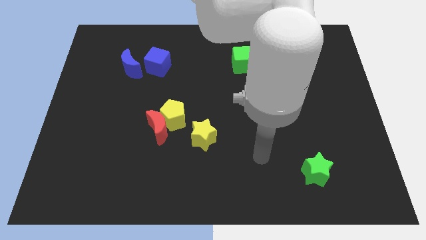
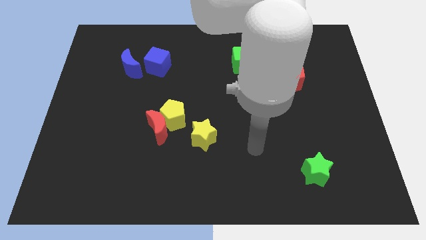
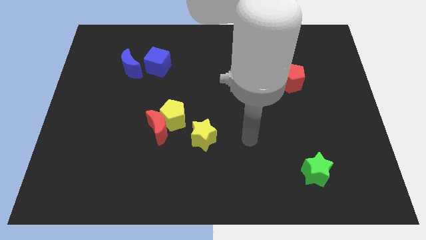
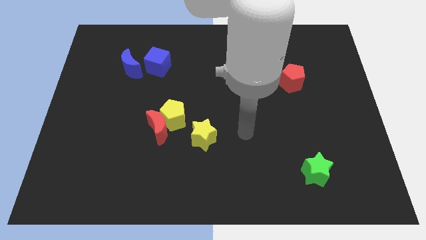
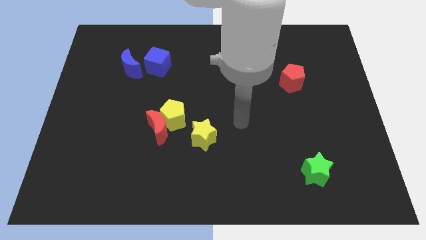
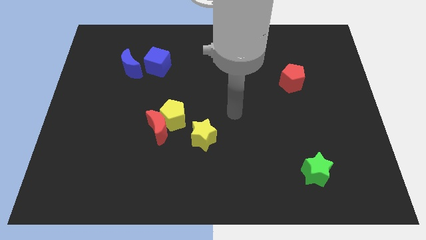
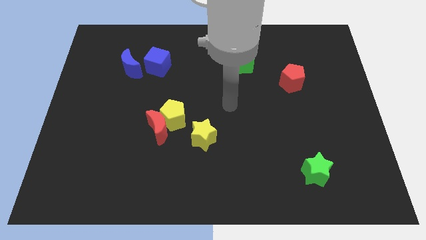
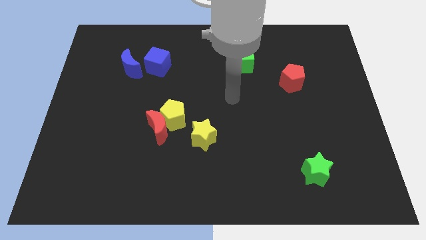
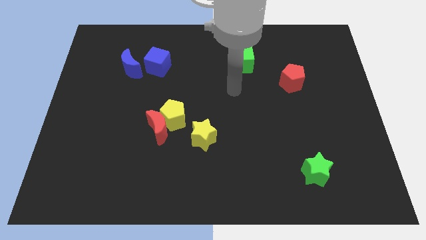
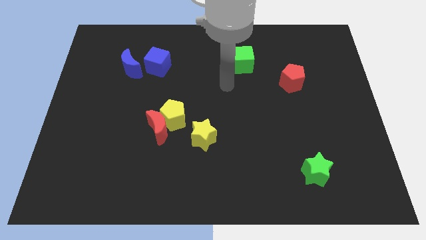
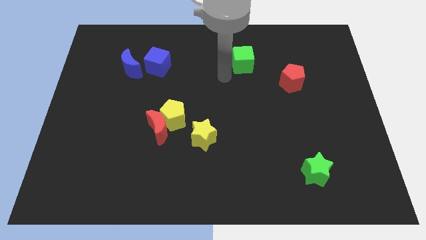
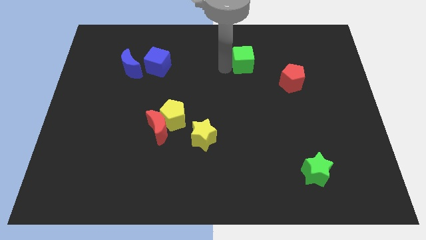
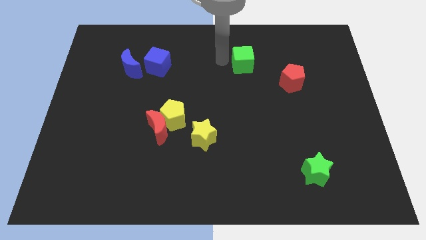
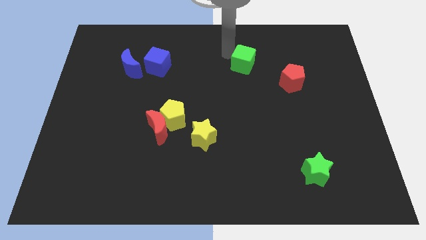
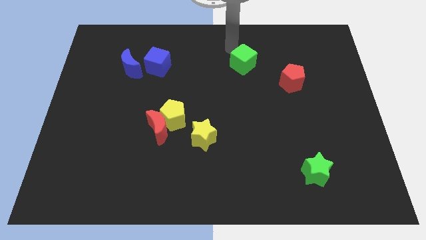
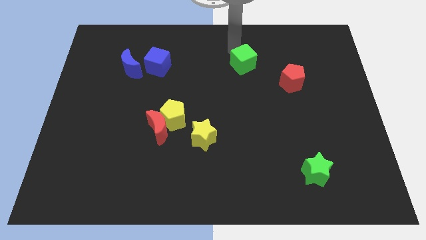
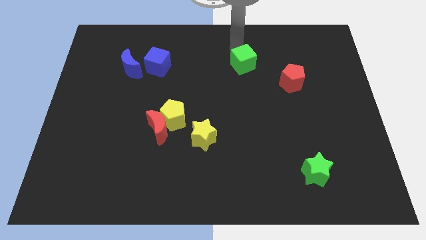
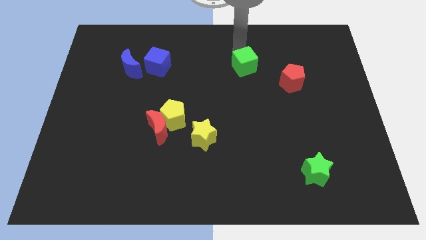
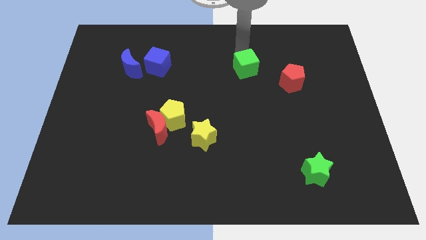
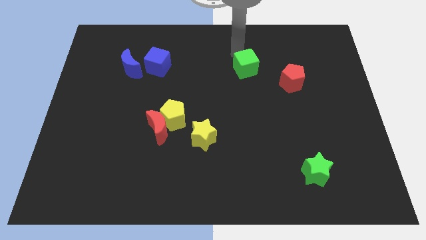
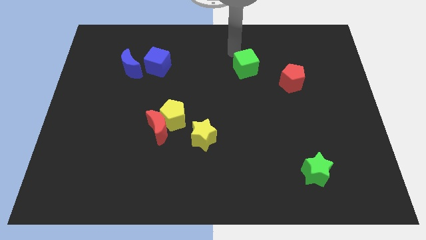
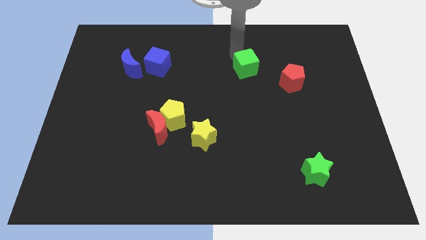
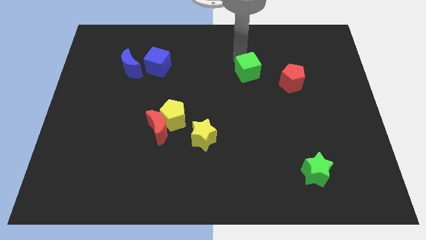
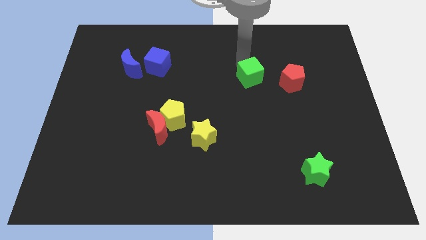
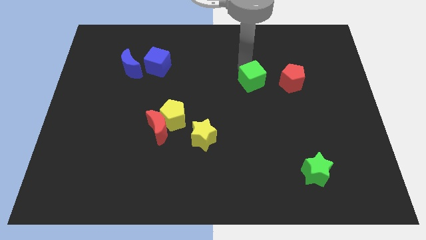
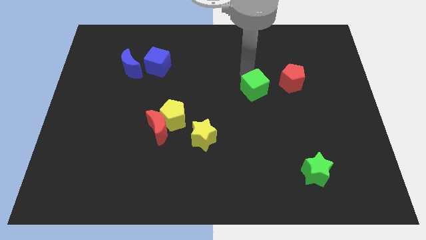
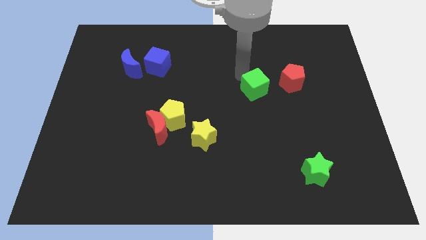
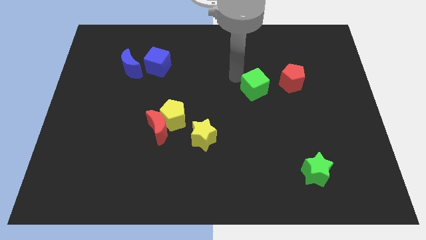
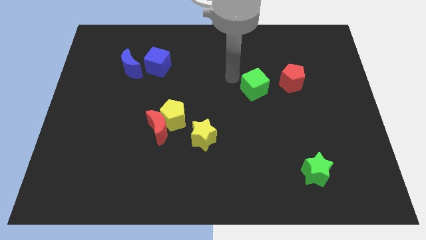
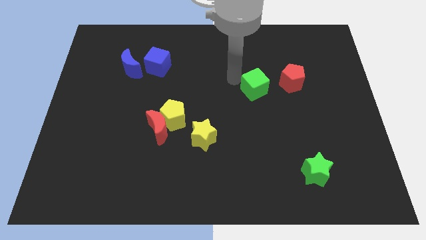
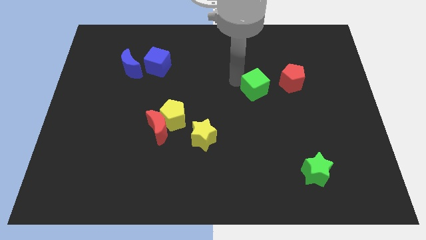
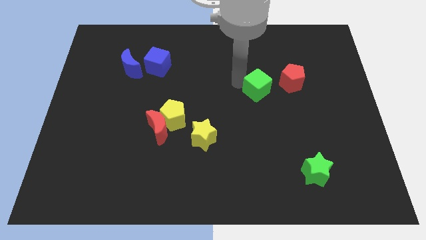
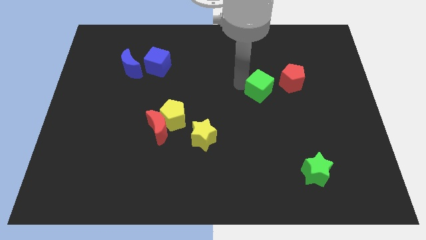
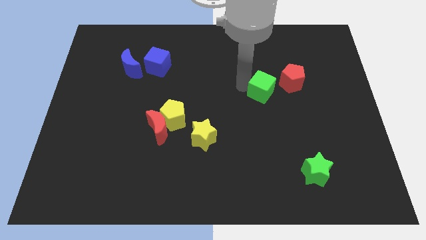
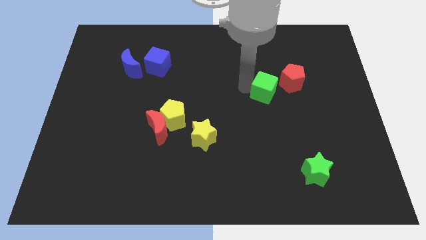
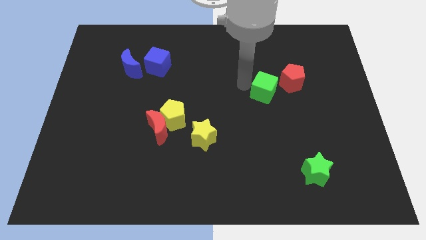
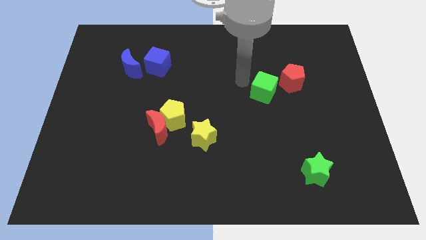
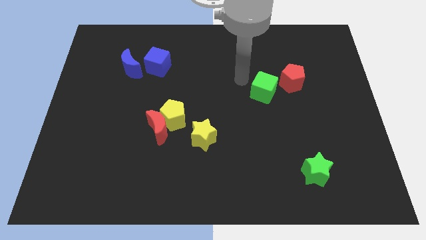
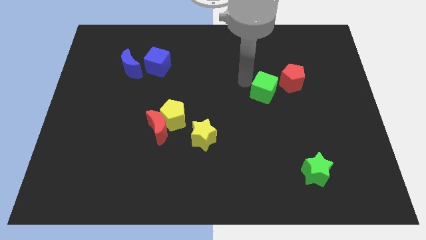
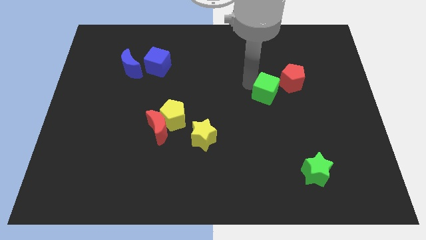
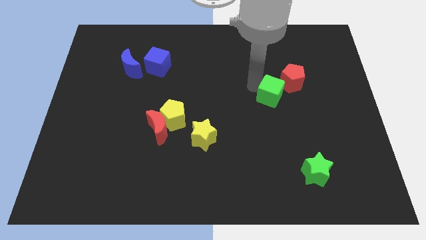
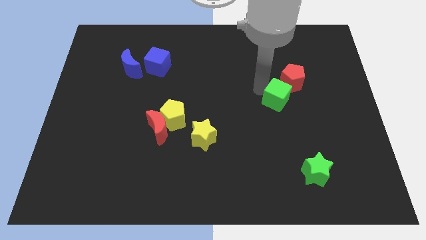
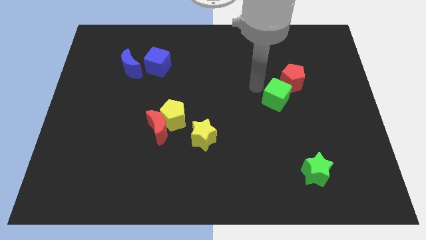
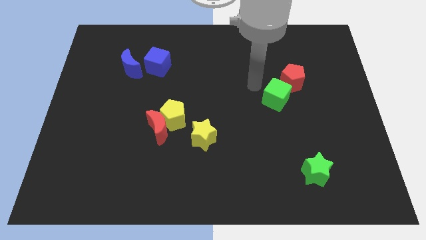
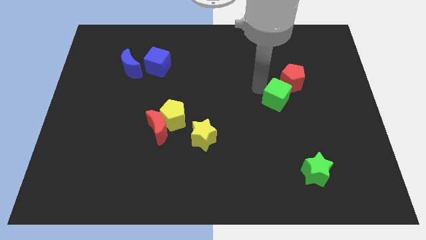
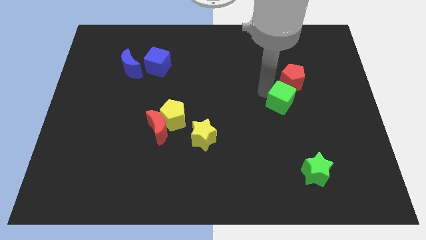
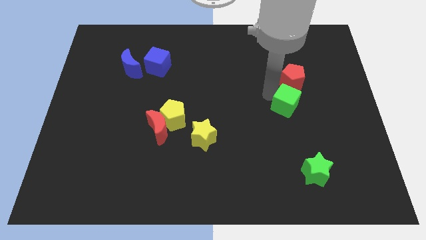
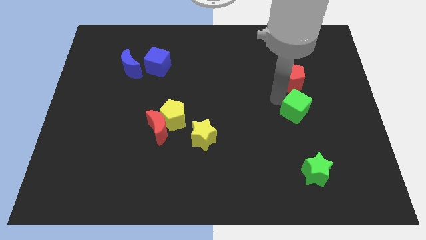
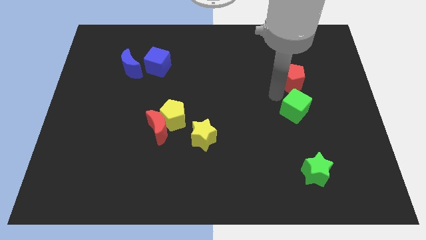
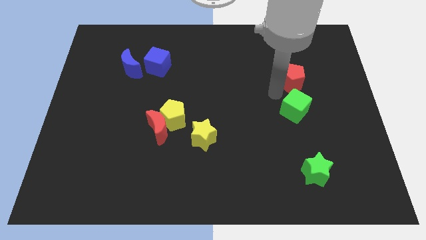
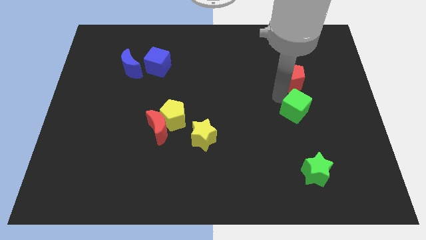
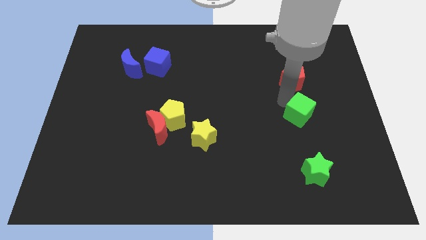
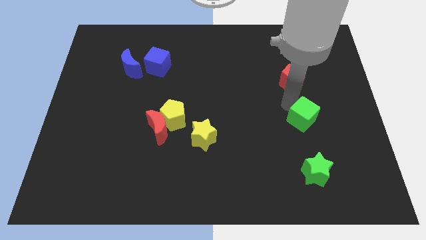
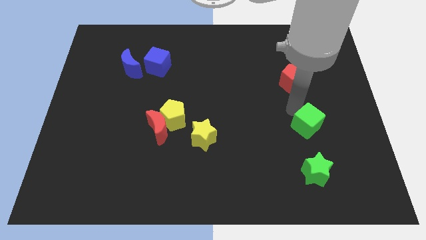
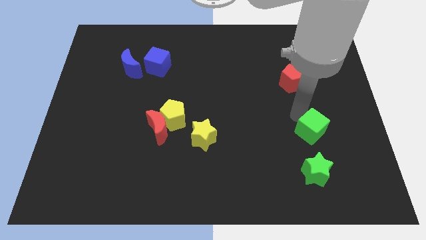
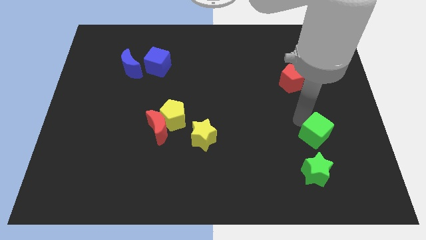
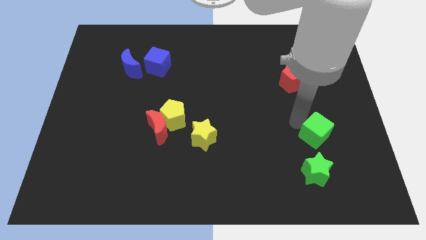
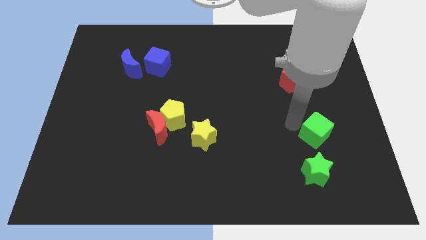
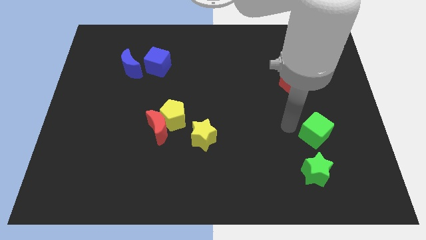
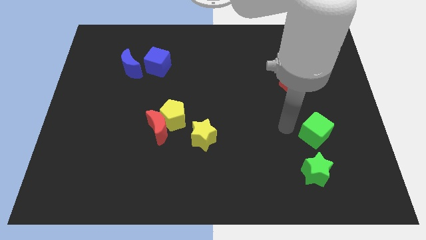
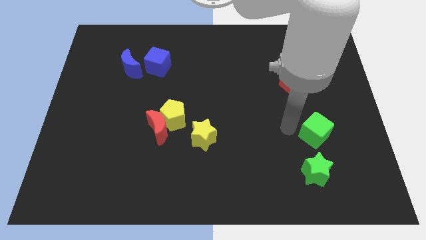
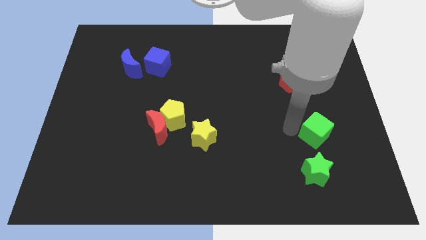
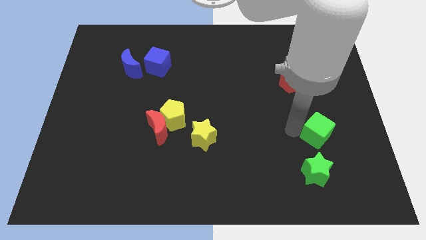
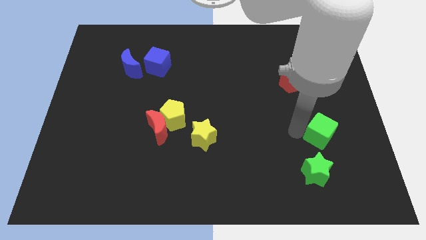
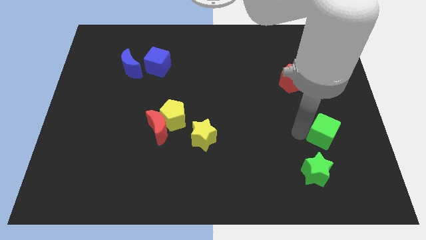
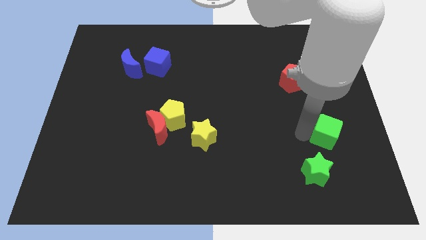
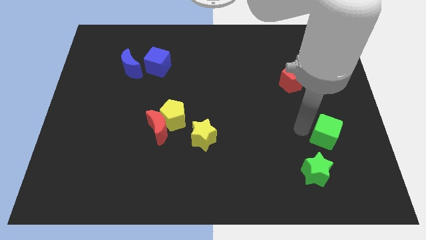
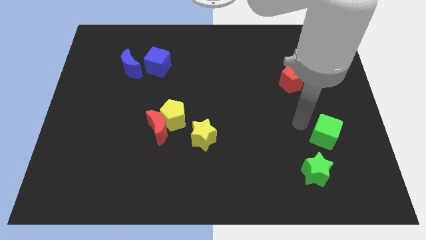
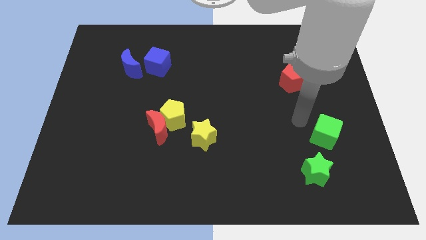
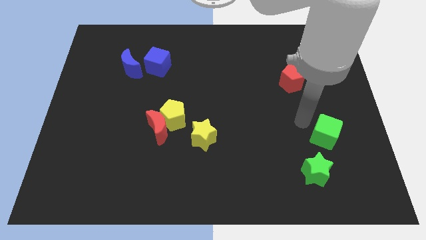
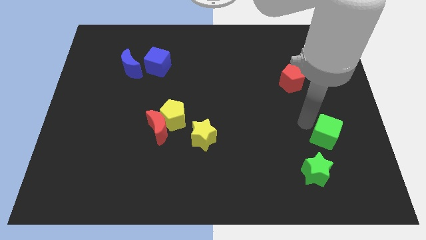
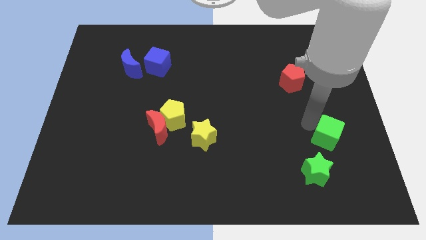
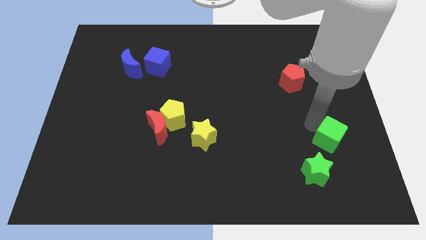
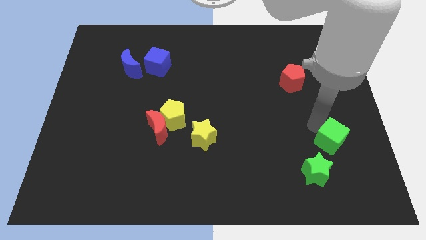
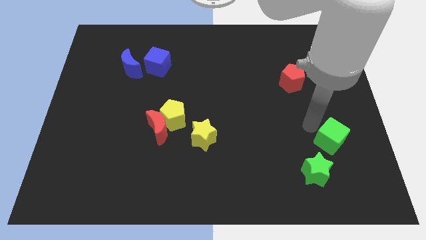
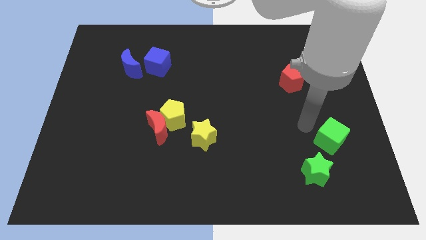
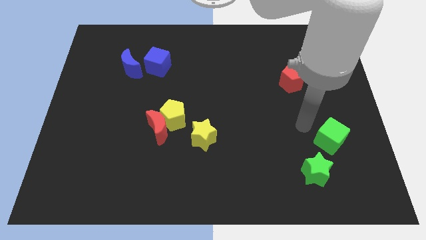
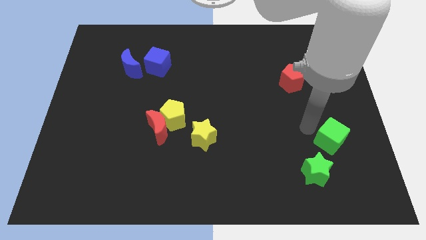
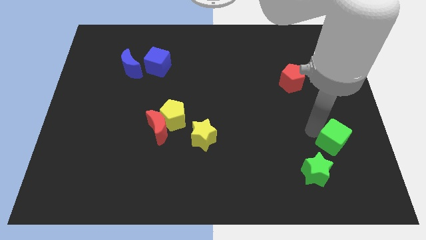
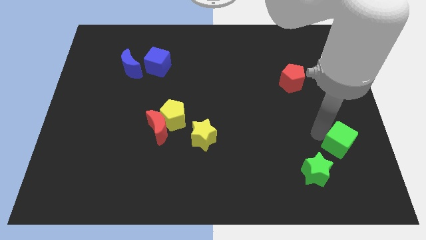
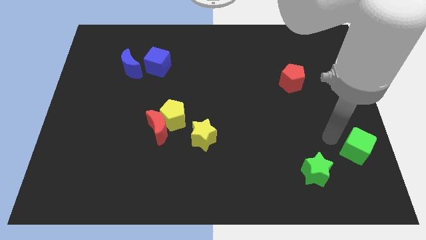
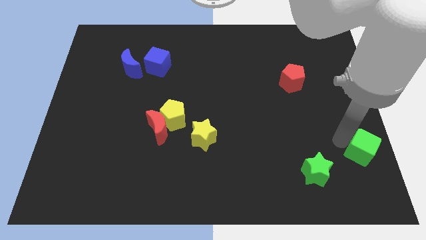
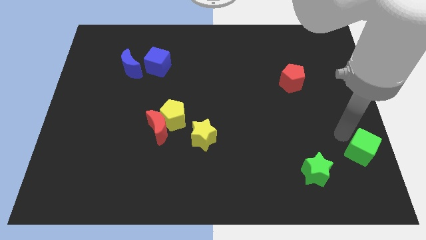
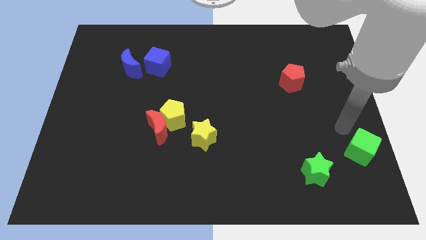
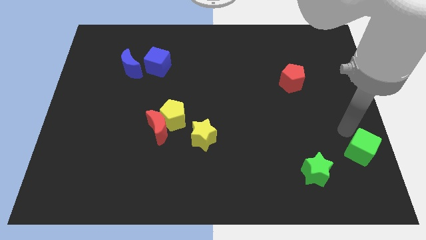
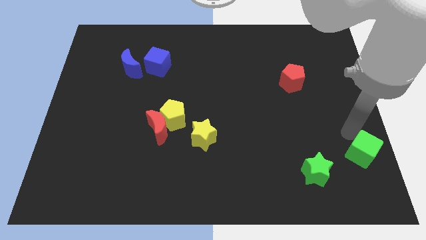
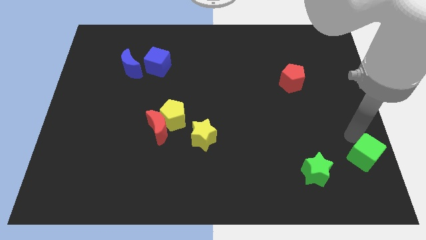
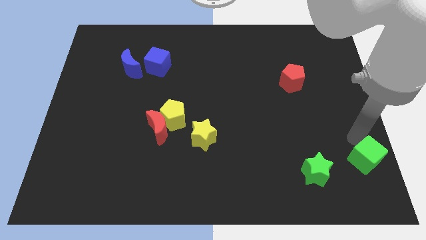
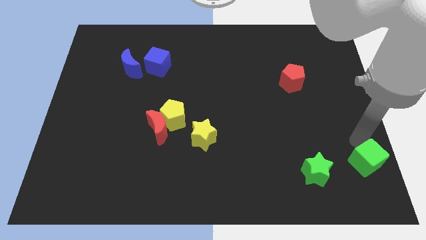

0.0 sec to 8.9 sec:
move the green cube to the bottom right corner
